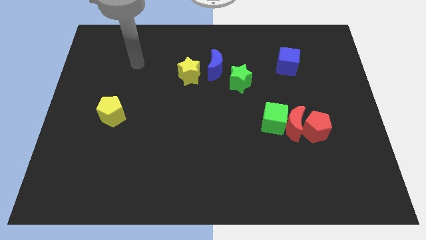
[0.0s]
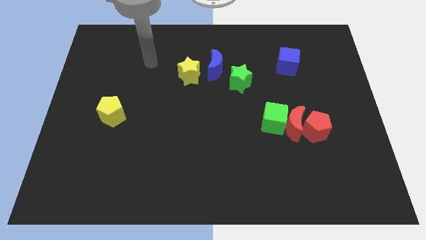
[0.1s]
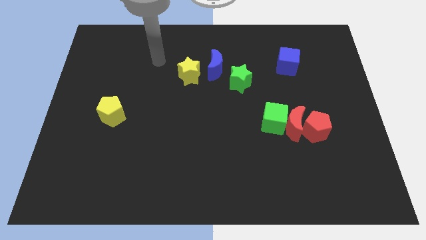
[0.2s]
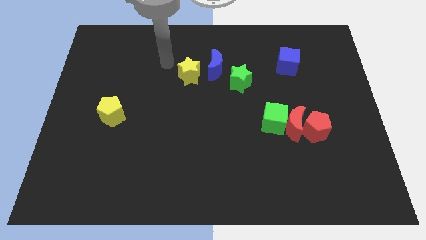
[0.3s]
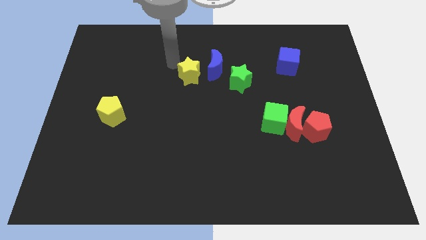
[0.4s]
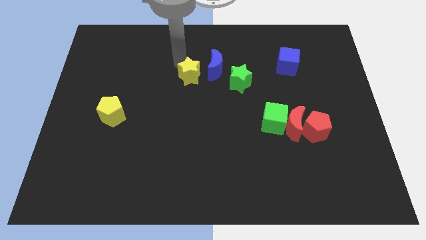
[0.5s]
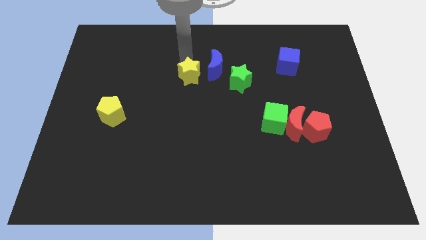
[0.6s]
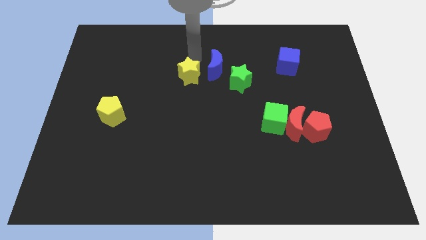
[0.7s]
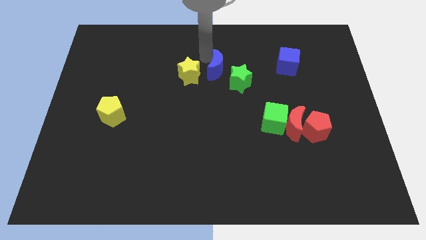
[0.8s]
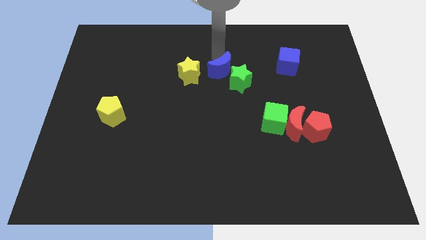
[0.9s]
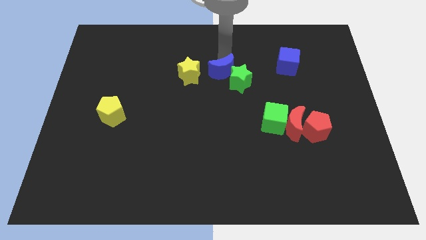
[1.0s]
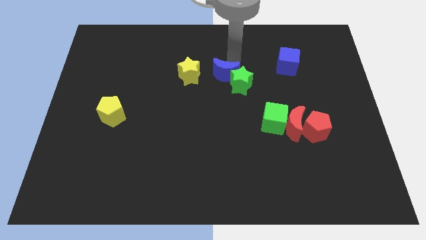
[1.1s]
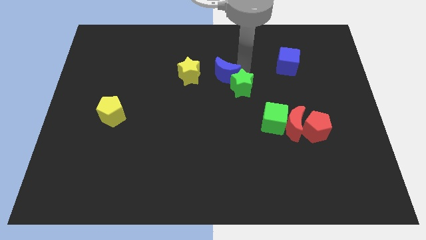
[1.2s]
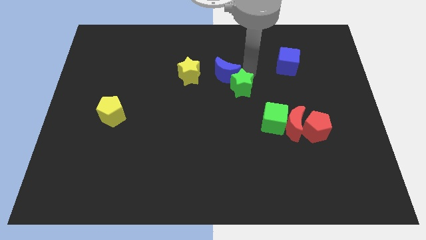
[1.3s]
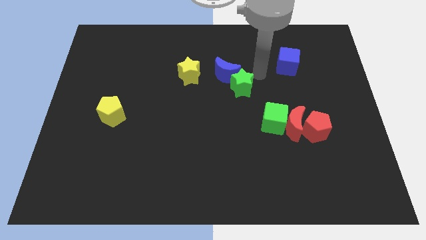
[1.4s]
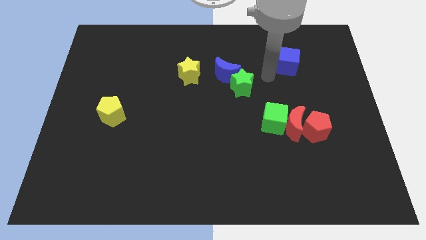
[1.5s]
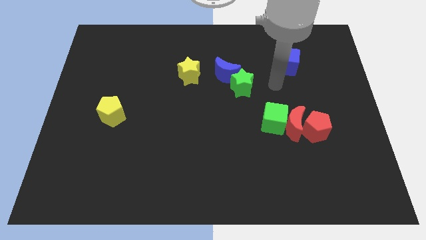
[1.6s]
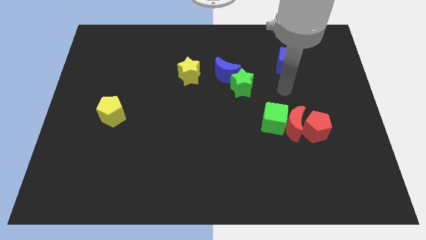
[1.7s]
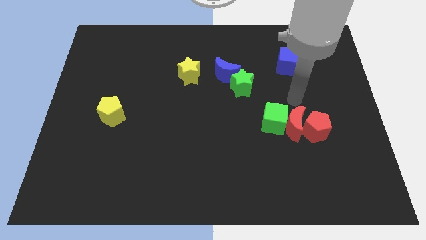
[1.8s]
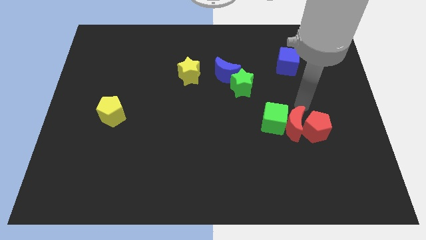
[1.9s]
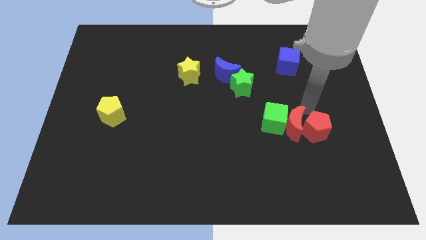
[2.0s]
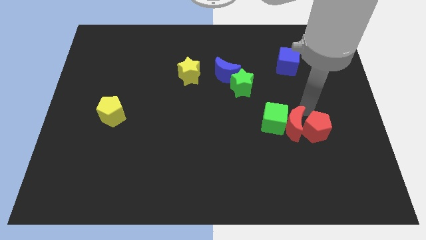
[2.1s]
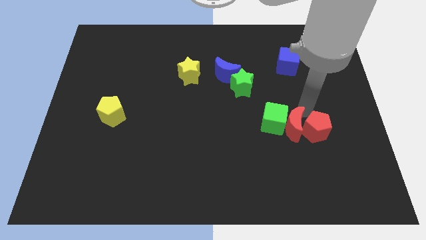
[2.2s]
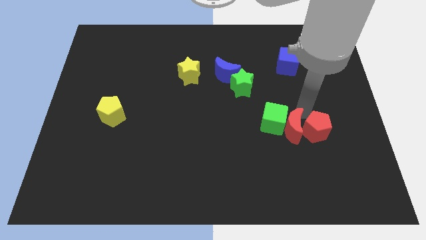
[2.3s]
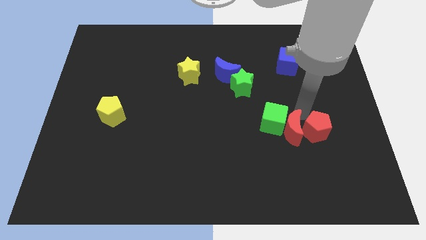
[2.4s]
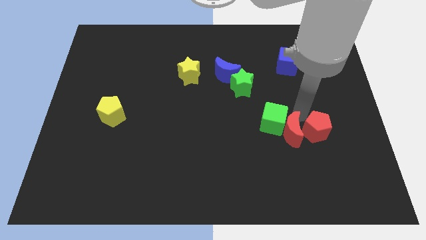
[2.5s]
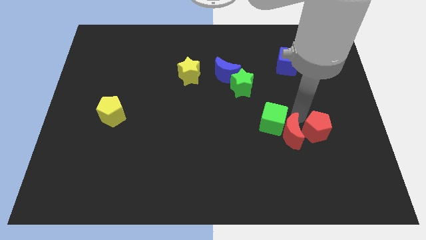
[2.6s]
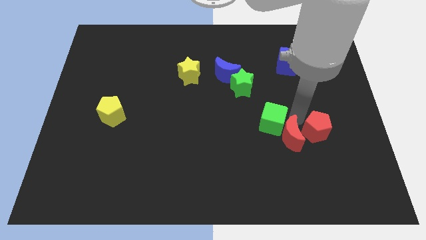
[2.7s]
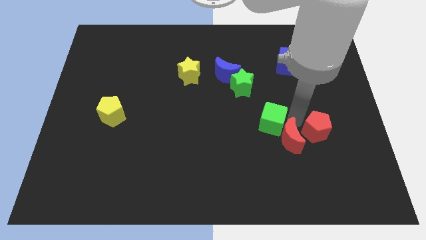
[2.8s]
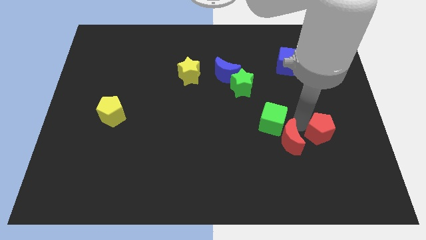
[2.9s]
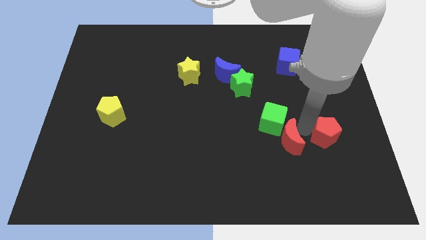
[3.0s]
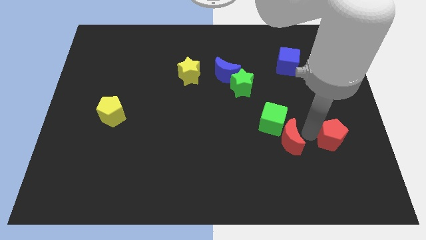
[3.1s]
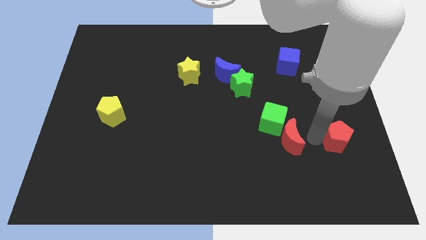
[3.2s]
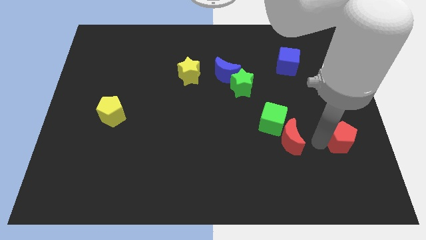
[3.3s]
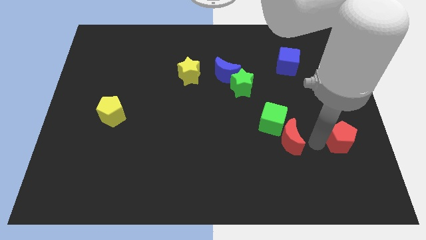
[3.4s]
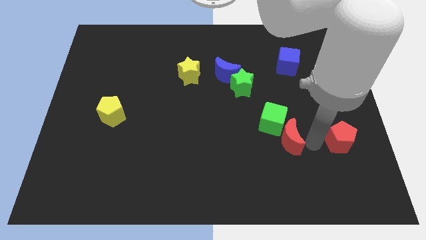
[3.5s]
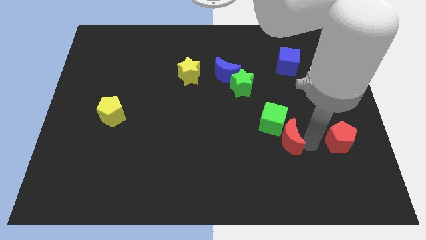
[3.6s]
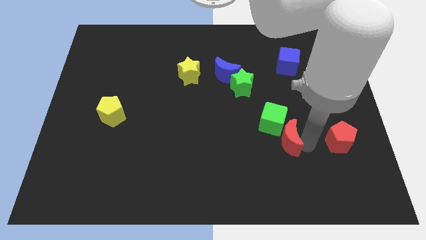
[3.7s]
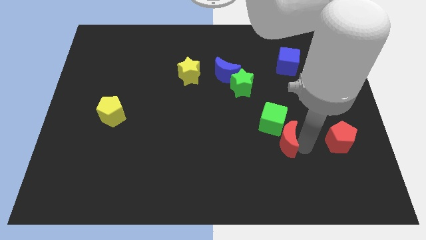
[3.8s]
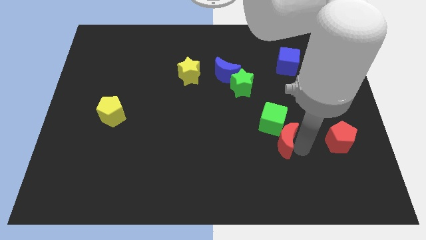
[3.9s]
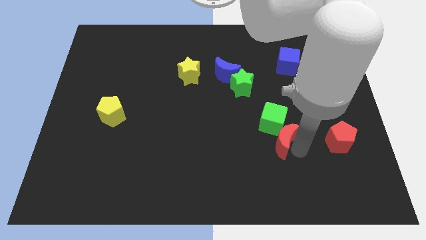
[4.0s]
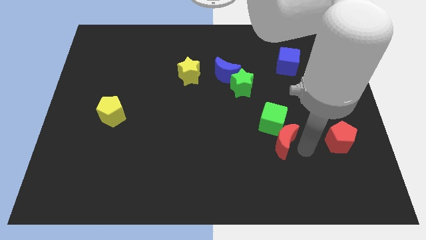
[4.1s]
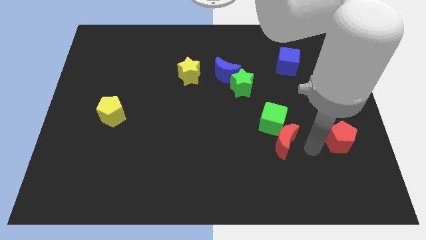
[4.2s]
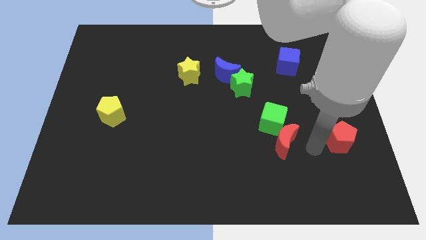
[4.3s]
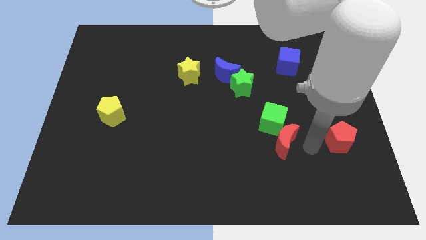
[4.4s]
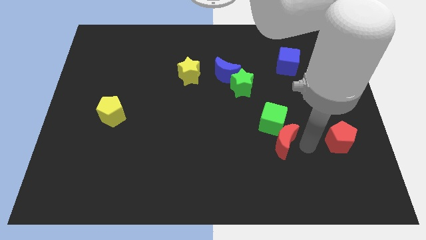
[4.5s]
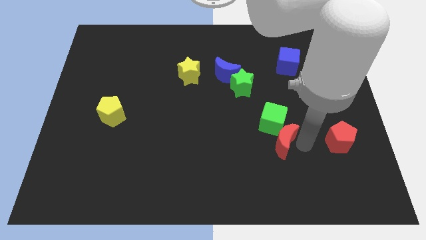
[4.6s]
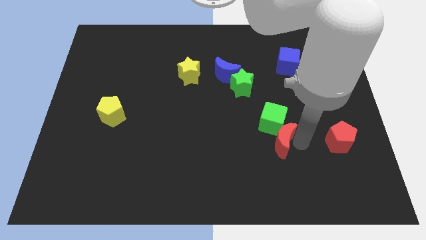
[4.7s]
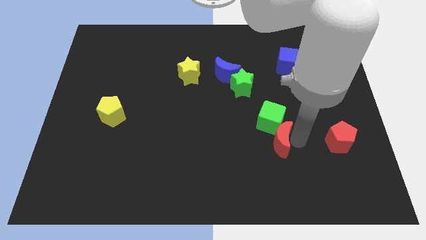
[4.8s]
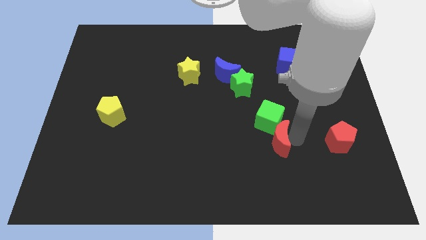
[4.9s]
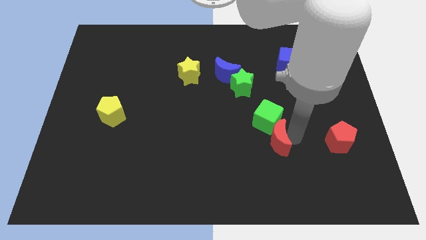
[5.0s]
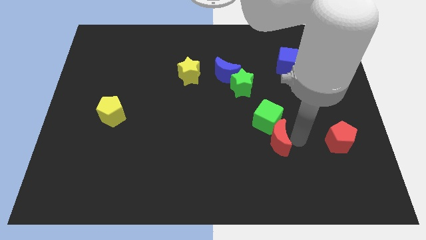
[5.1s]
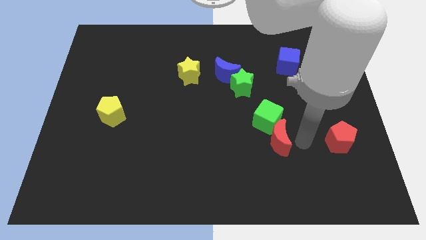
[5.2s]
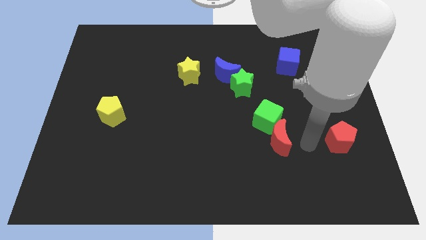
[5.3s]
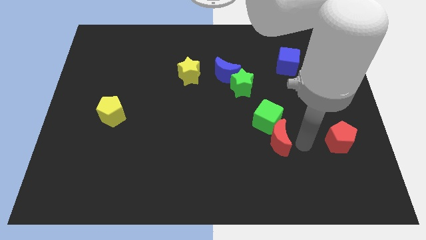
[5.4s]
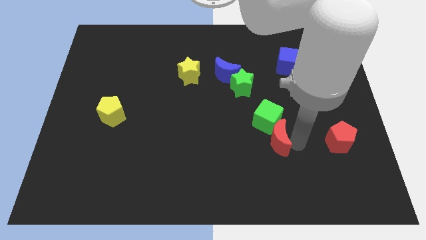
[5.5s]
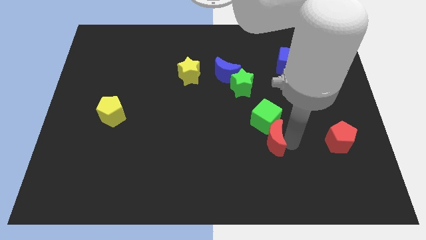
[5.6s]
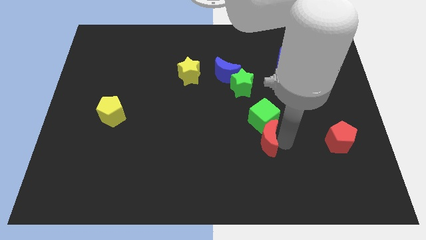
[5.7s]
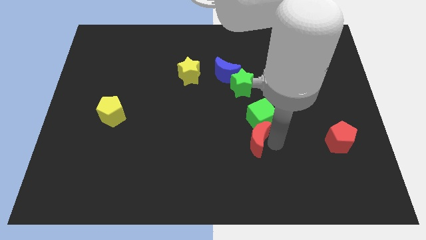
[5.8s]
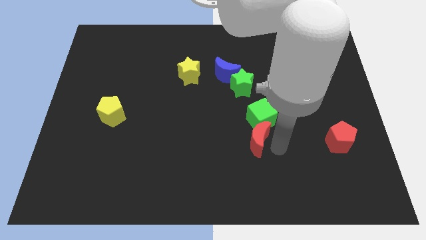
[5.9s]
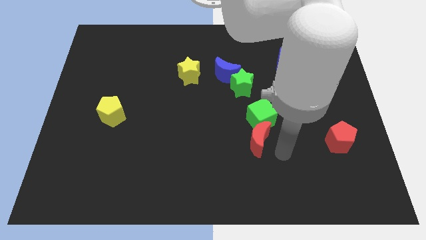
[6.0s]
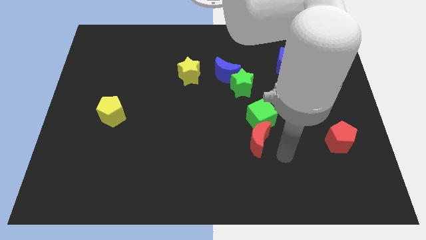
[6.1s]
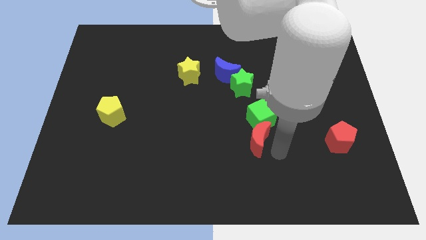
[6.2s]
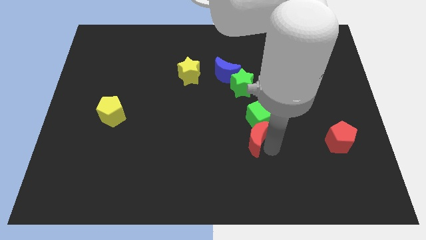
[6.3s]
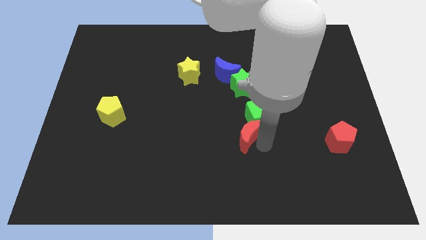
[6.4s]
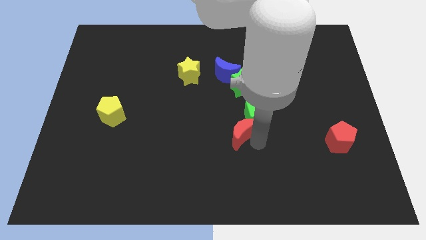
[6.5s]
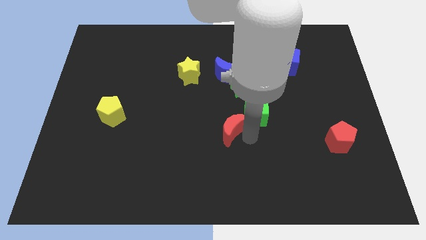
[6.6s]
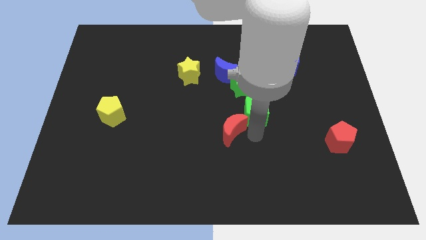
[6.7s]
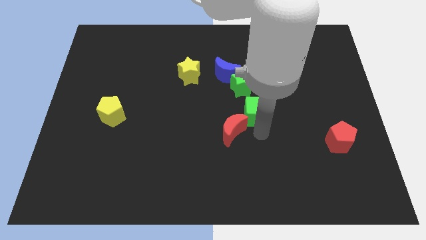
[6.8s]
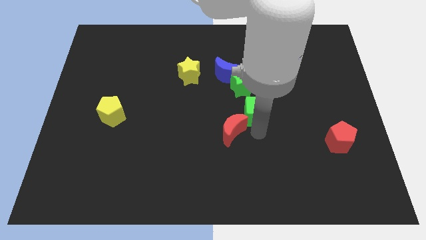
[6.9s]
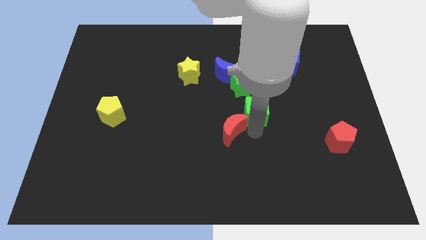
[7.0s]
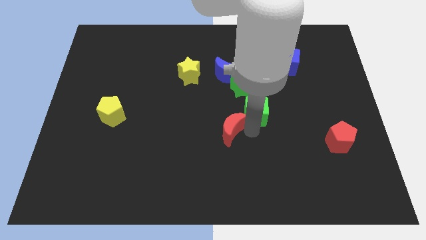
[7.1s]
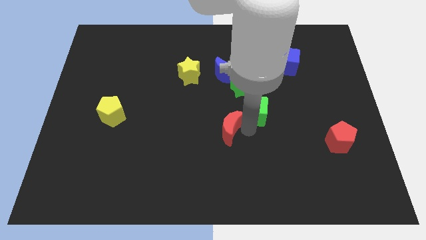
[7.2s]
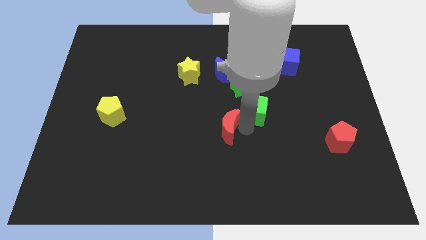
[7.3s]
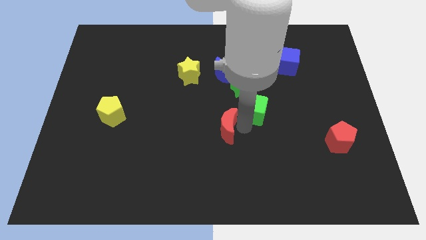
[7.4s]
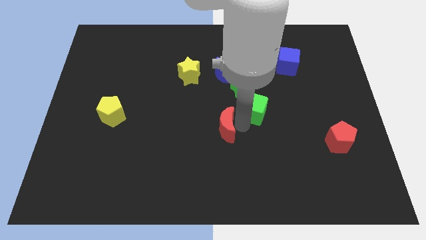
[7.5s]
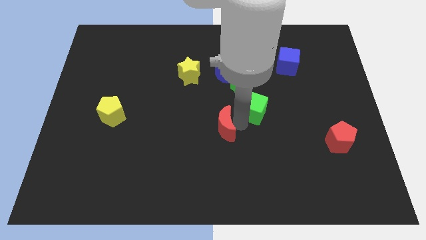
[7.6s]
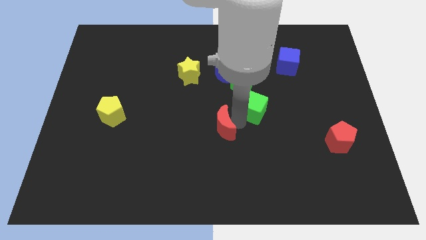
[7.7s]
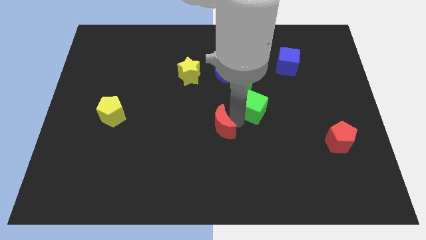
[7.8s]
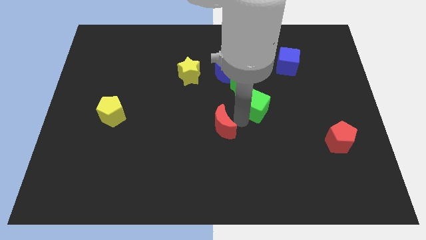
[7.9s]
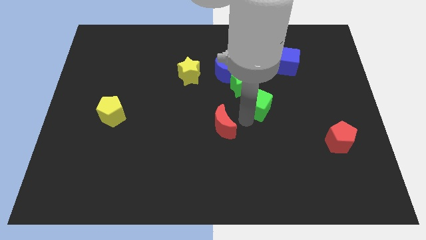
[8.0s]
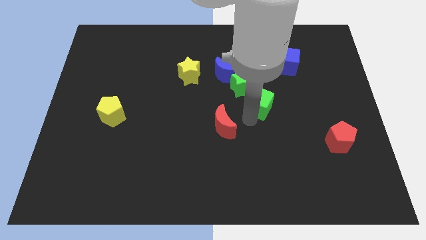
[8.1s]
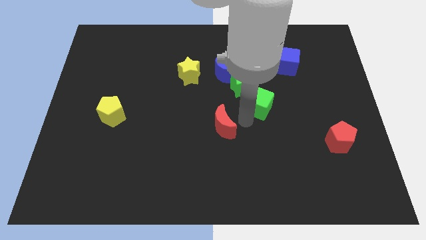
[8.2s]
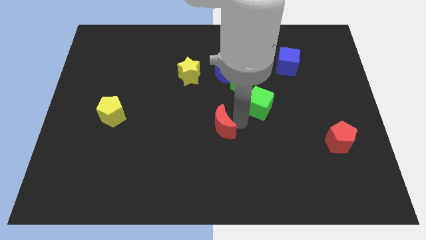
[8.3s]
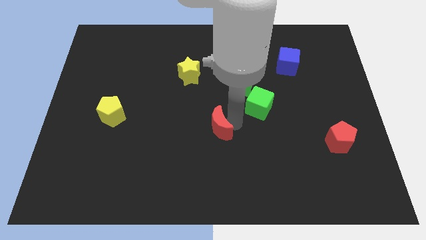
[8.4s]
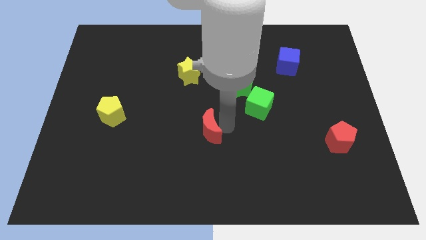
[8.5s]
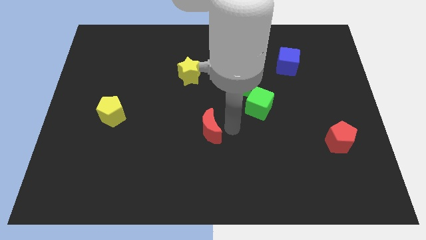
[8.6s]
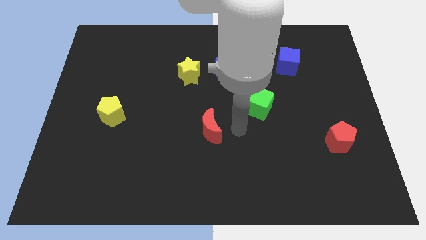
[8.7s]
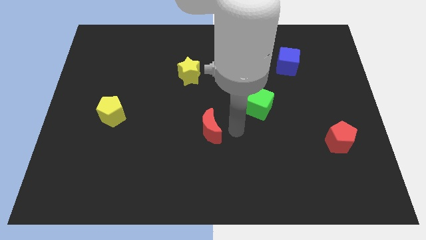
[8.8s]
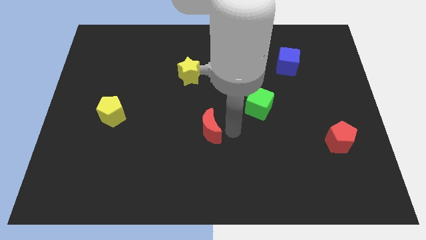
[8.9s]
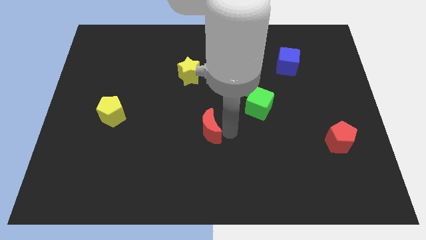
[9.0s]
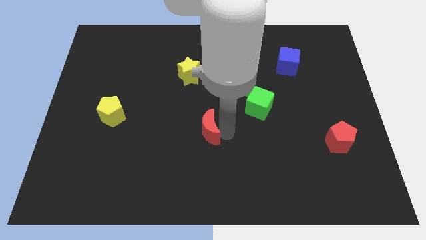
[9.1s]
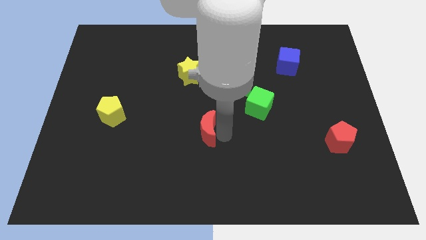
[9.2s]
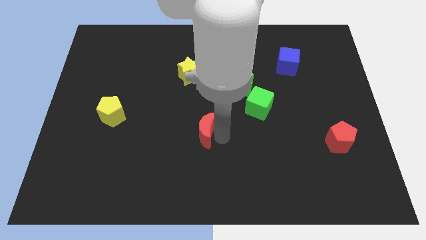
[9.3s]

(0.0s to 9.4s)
push the red moon to the left
